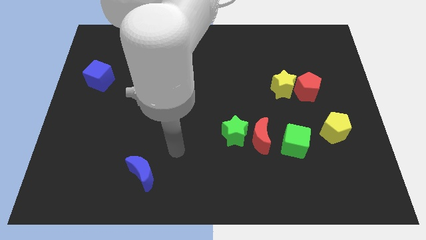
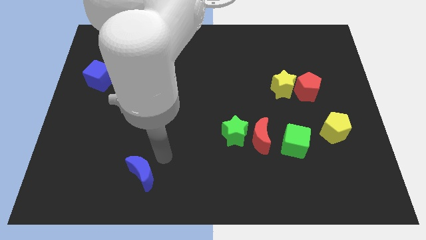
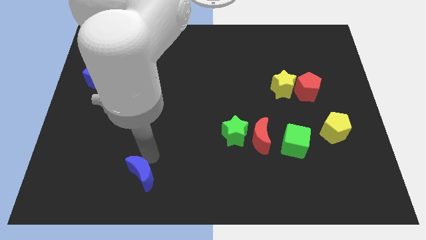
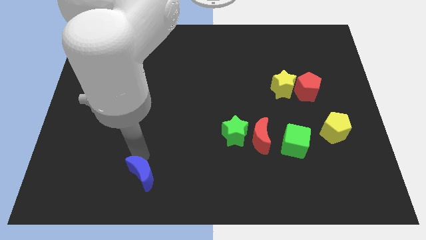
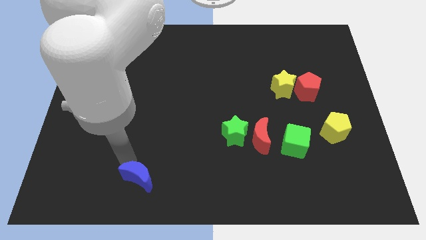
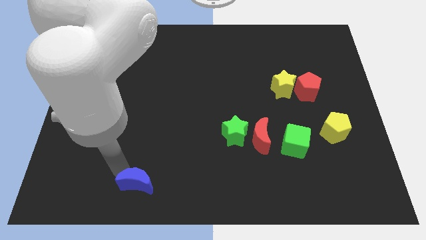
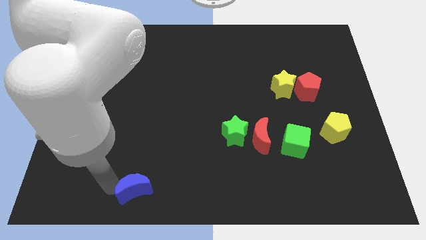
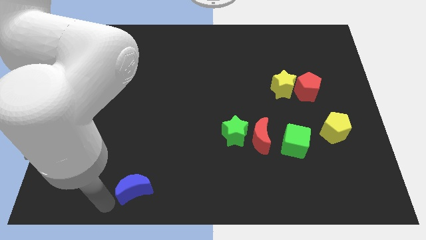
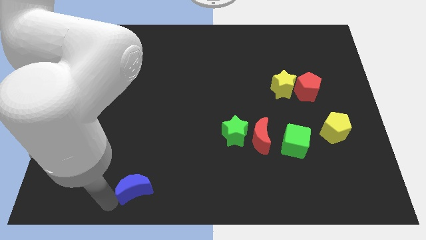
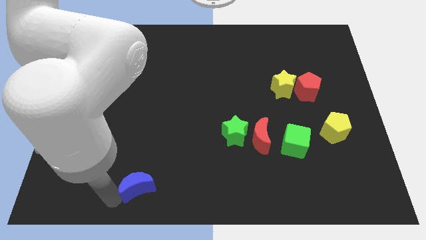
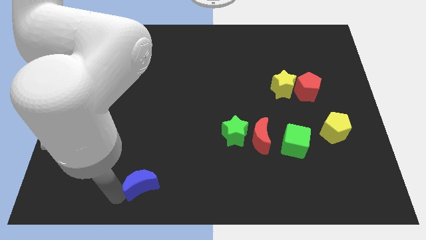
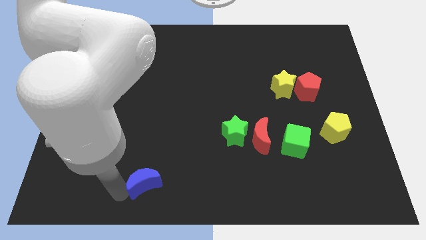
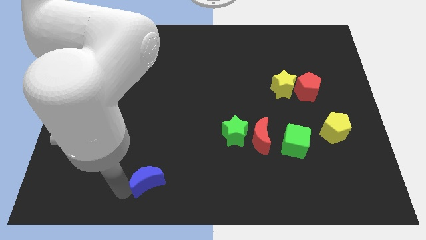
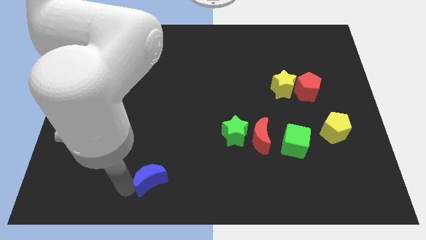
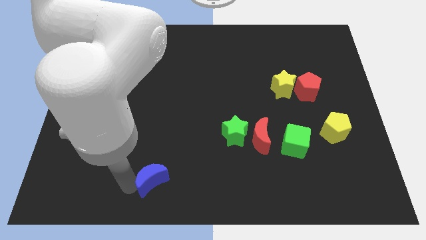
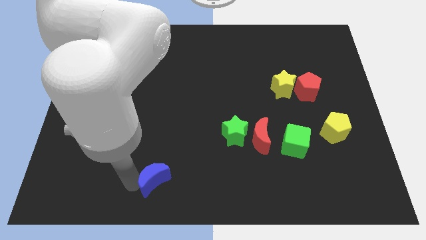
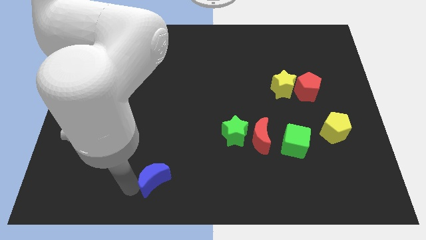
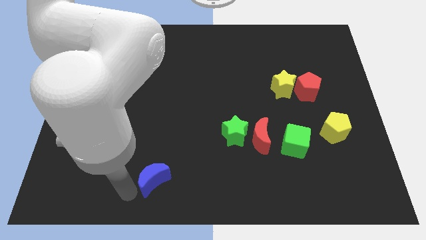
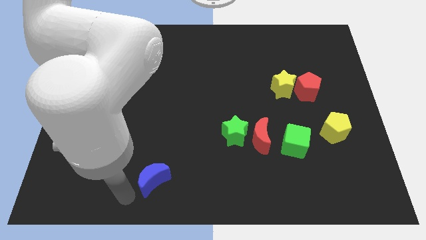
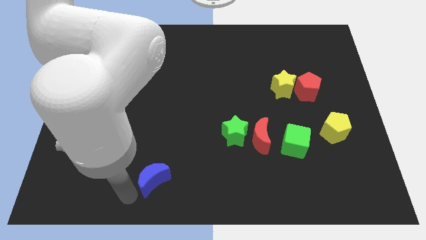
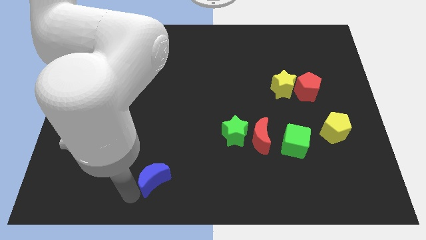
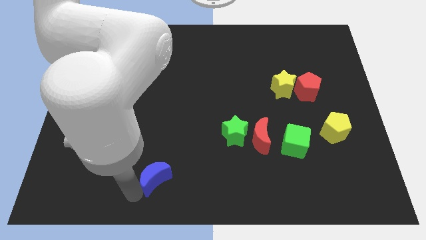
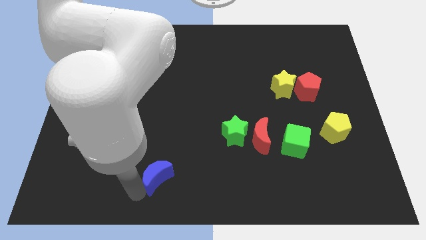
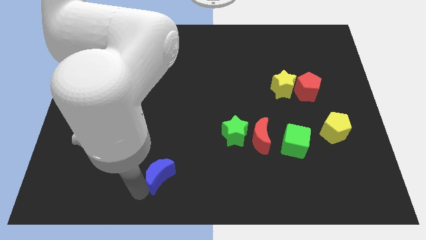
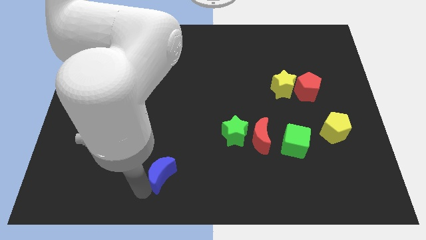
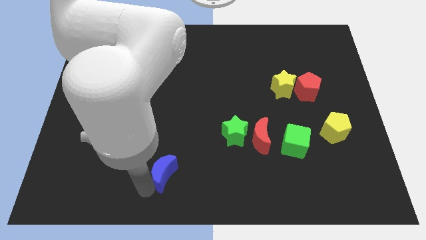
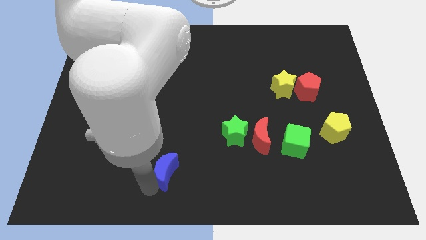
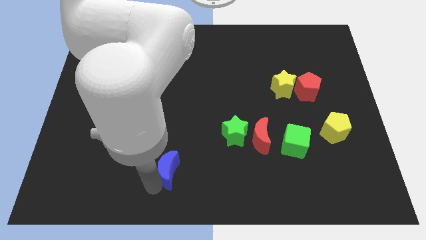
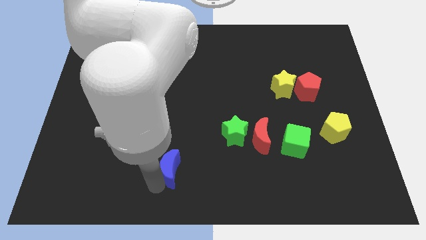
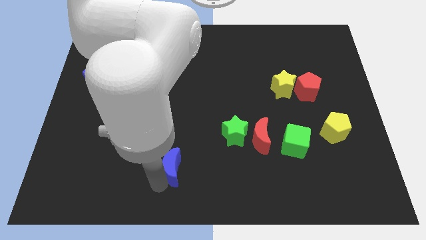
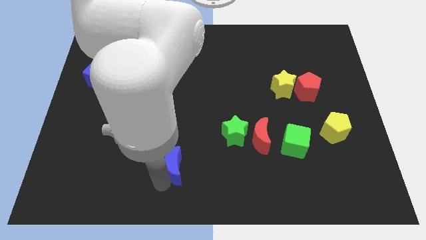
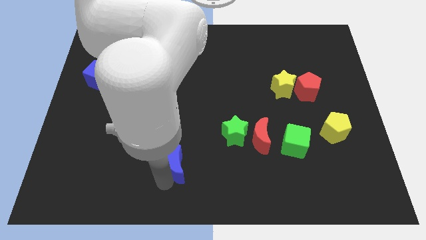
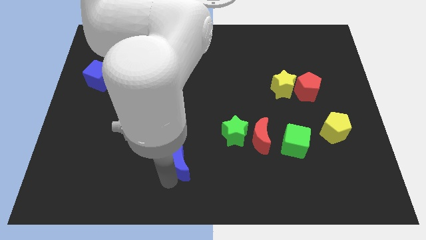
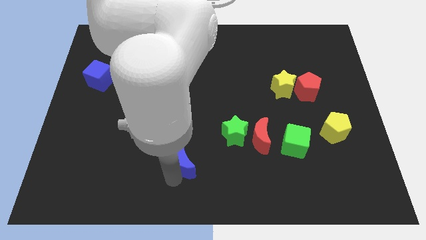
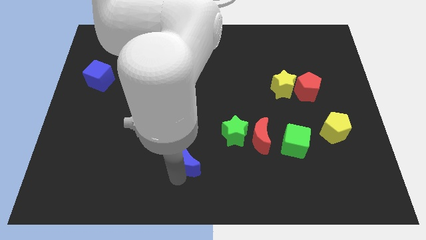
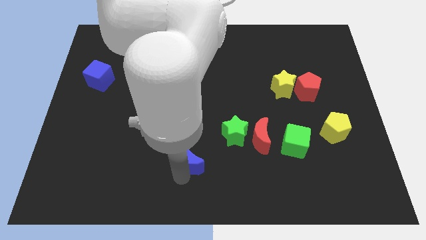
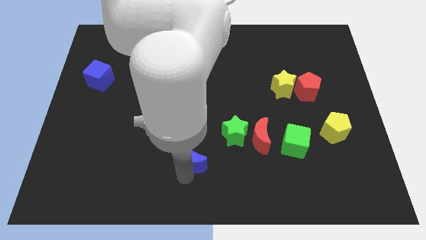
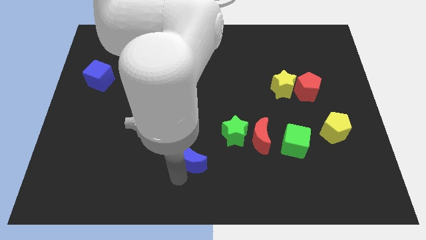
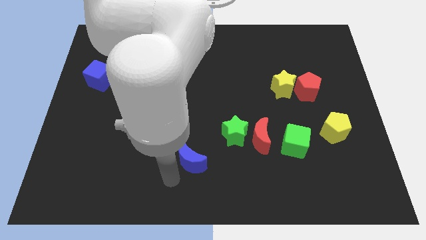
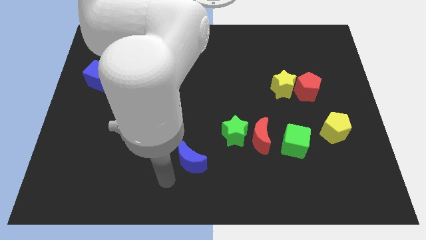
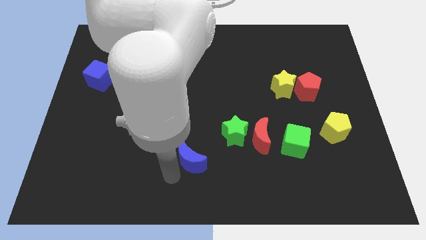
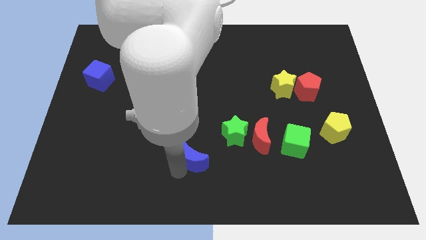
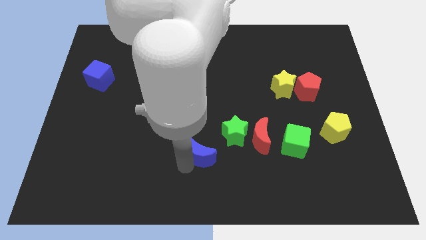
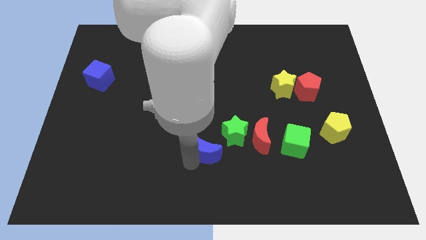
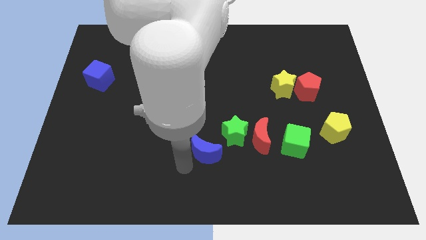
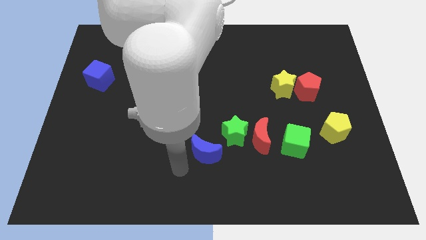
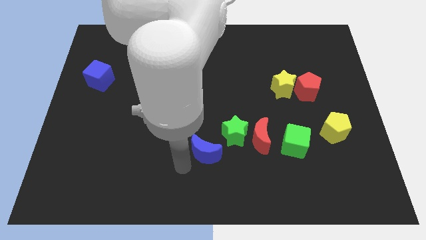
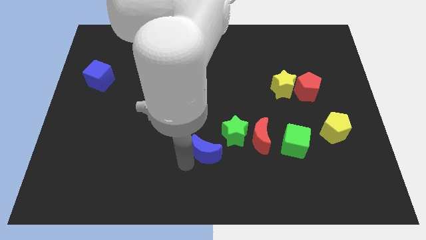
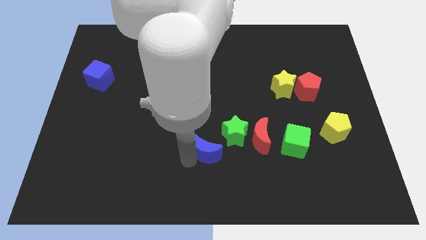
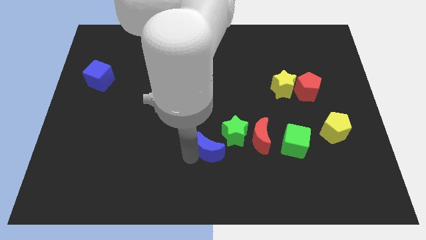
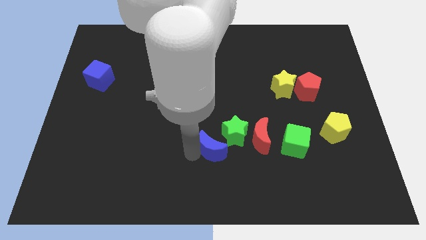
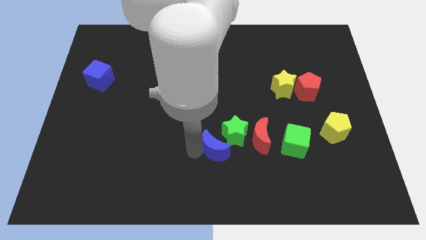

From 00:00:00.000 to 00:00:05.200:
push the blue moon next to the green star

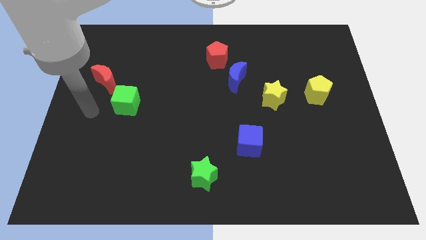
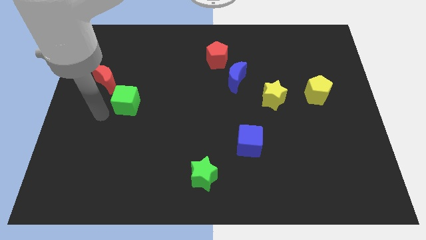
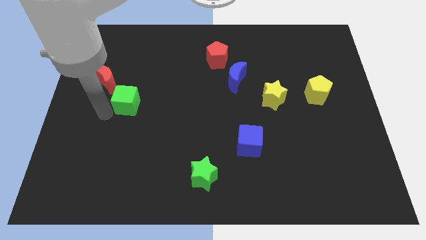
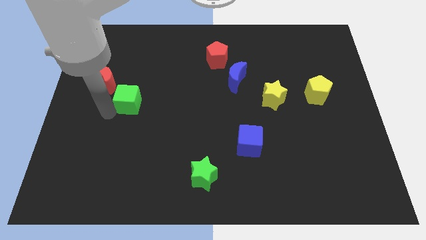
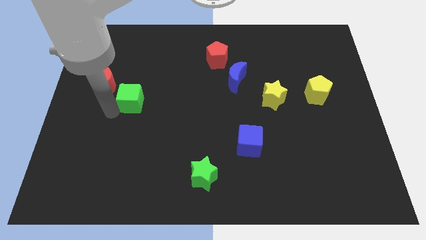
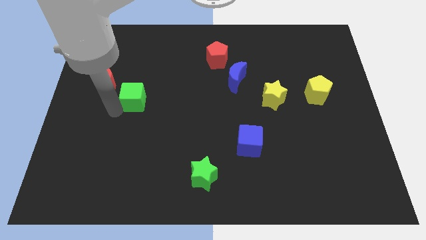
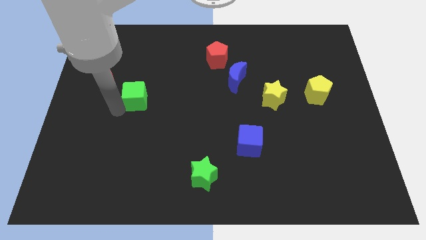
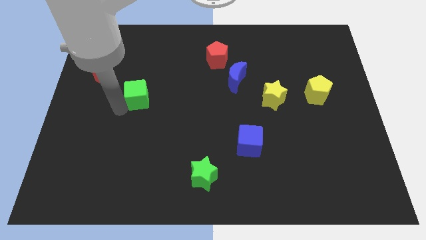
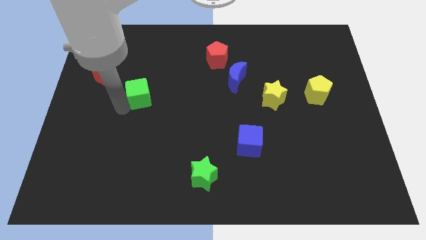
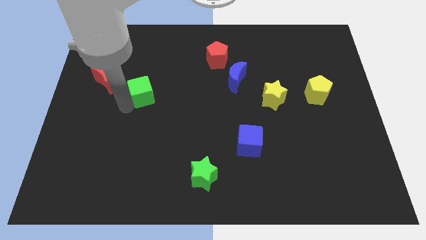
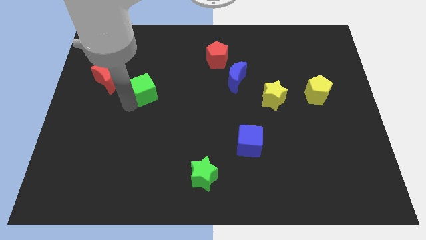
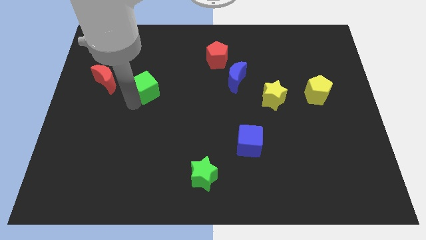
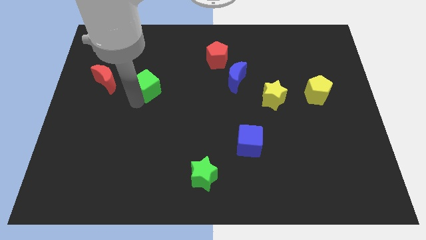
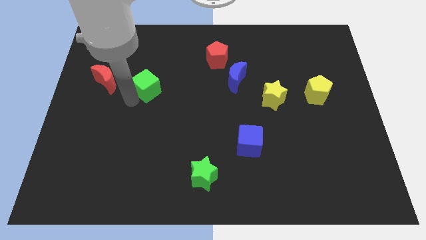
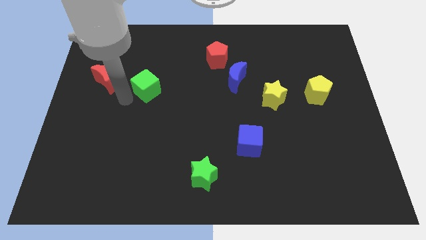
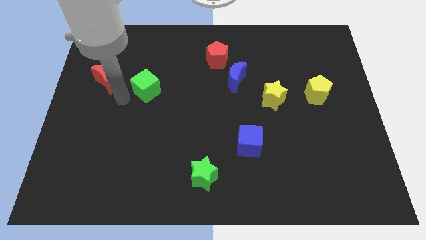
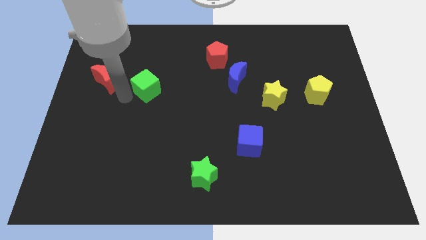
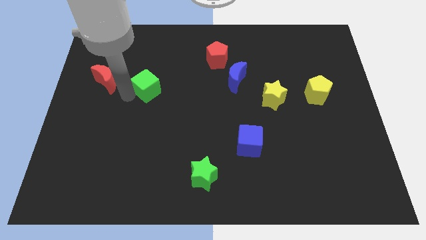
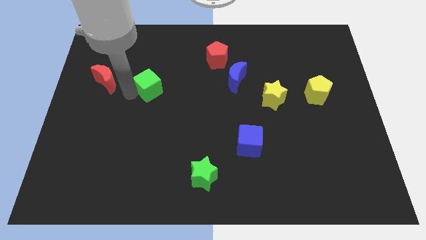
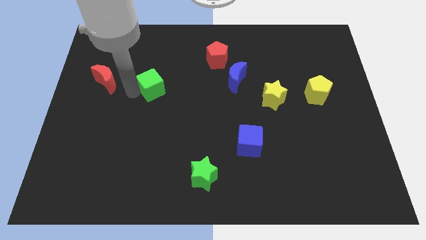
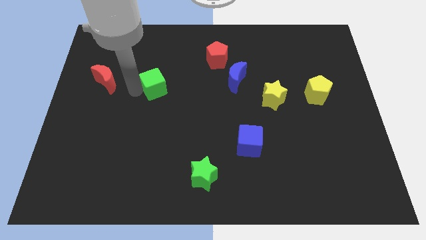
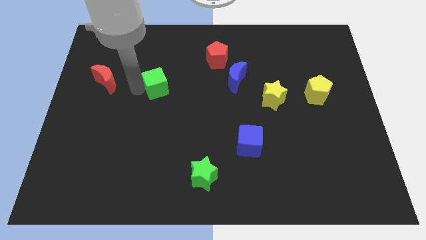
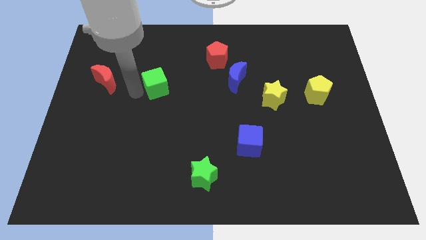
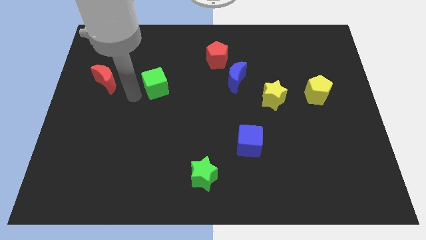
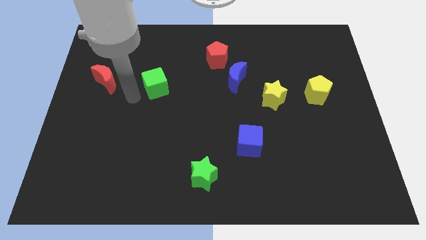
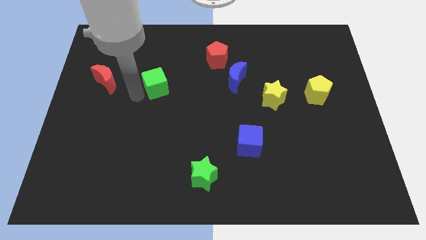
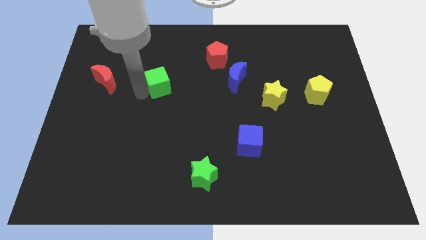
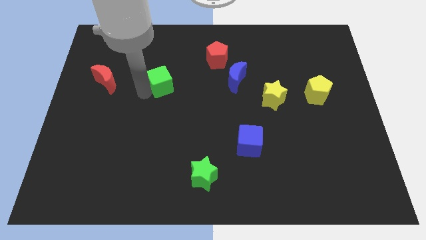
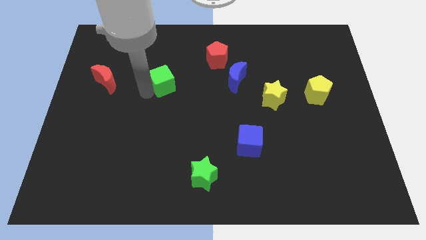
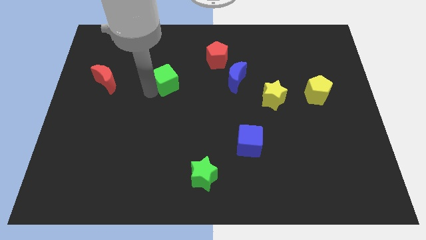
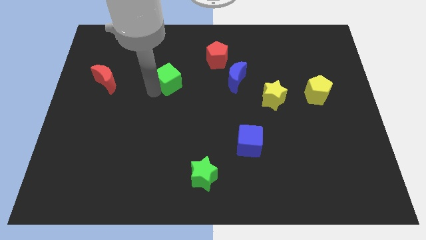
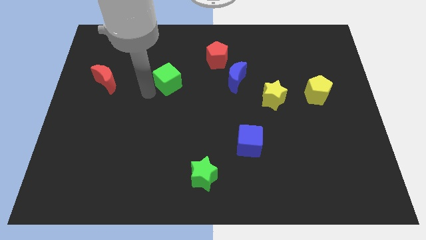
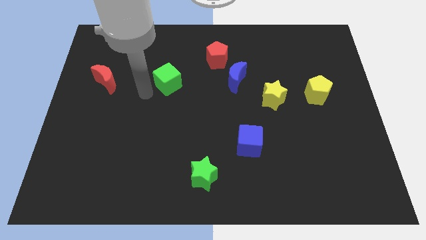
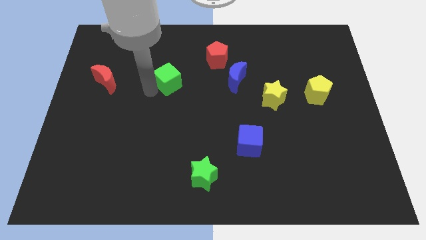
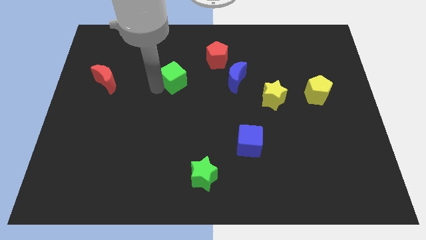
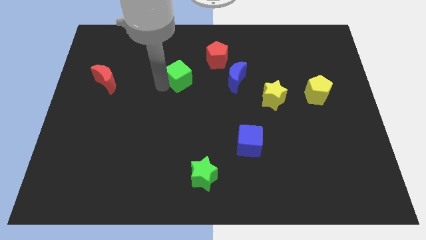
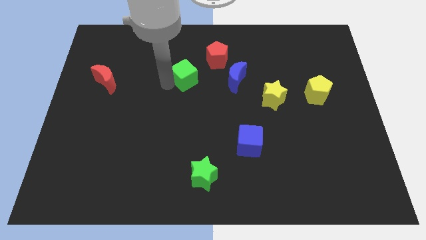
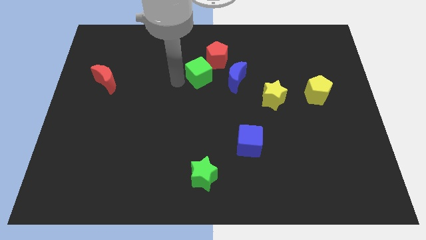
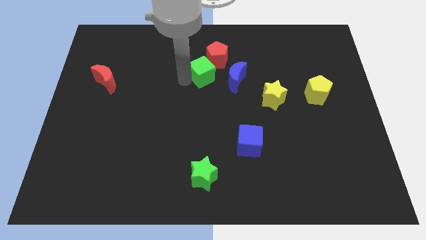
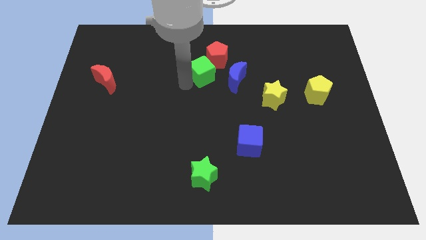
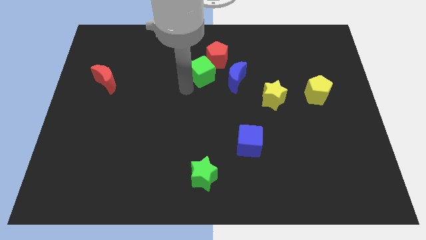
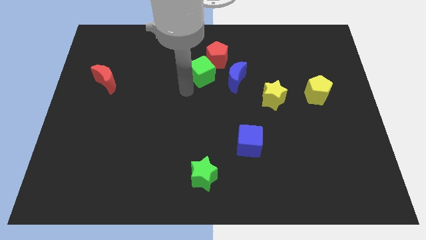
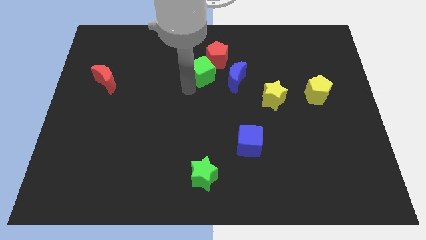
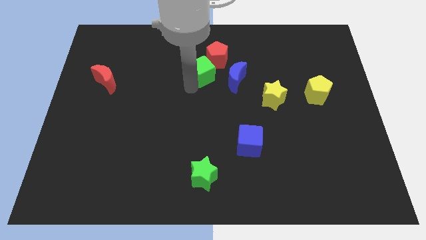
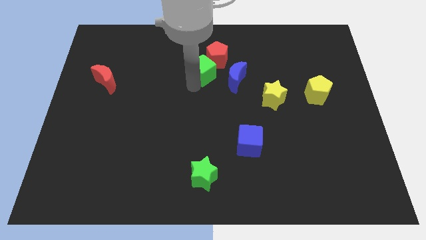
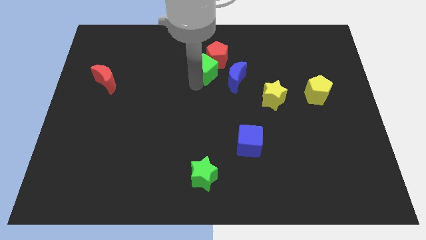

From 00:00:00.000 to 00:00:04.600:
move the green cube towards the red pentagon
